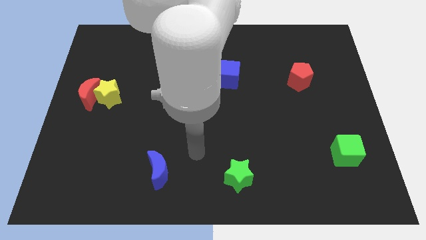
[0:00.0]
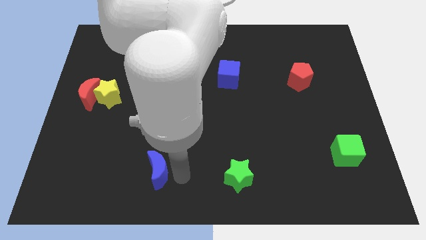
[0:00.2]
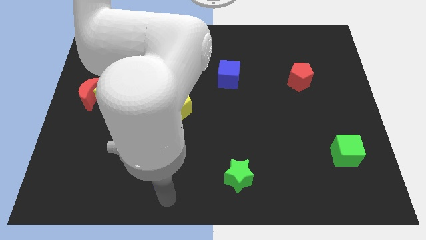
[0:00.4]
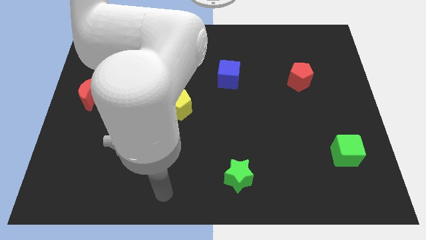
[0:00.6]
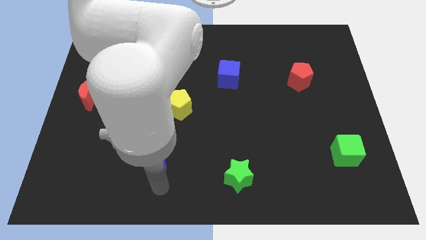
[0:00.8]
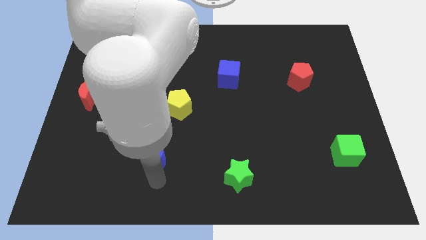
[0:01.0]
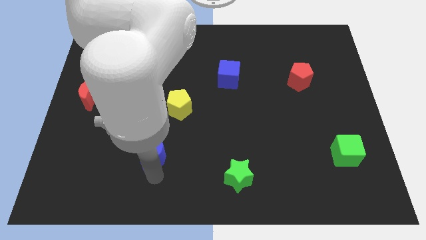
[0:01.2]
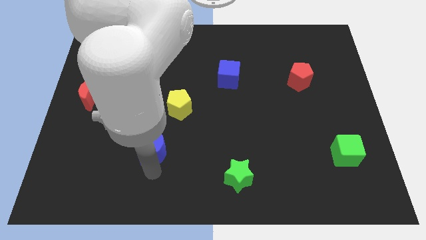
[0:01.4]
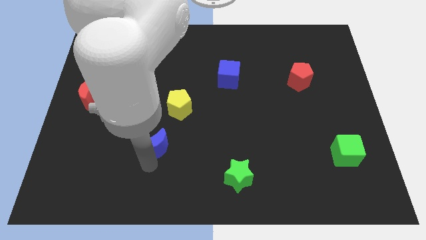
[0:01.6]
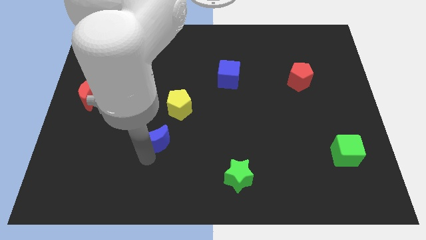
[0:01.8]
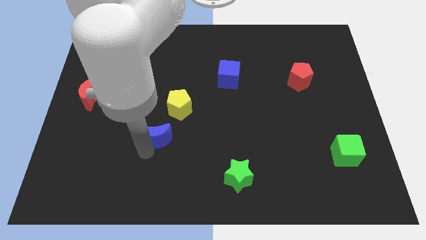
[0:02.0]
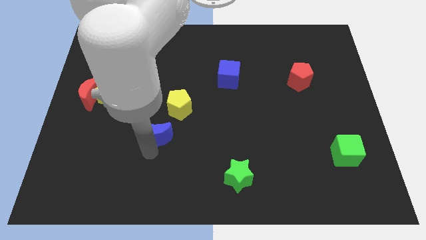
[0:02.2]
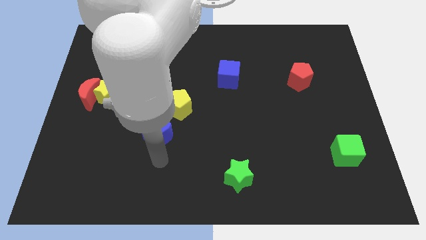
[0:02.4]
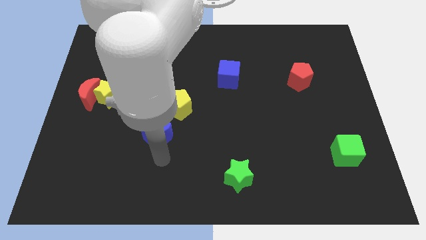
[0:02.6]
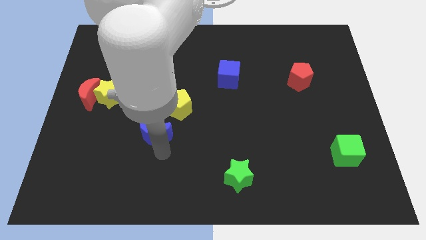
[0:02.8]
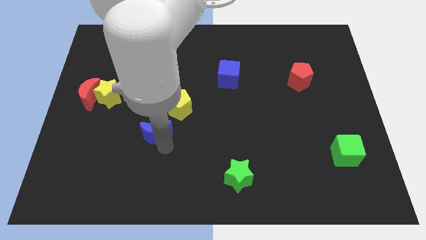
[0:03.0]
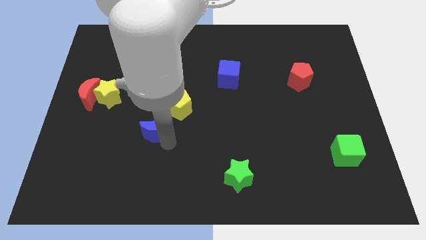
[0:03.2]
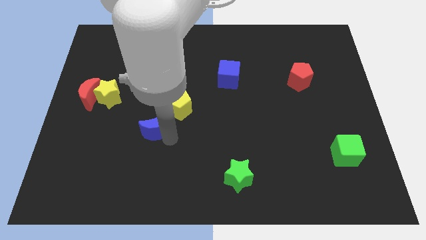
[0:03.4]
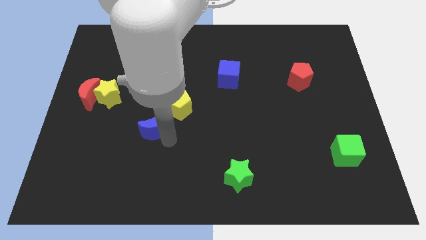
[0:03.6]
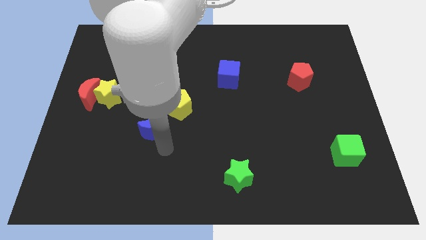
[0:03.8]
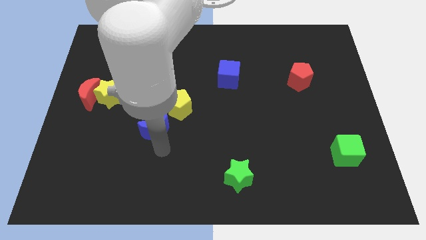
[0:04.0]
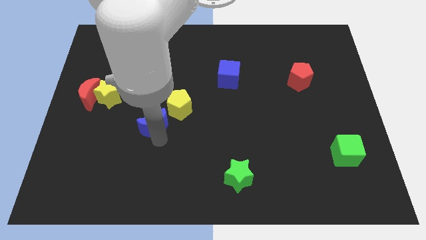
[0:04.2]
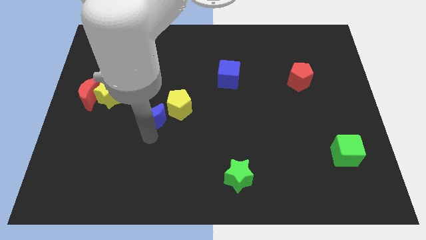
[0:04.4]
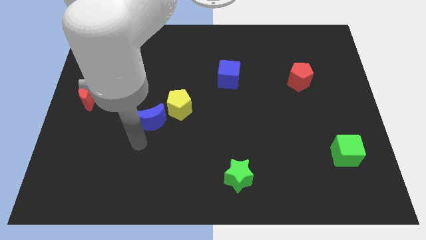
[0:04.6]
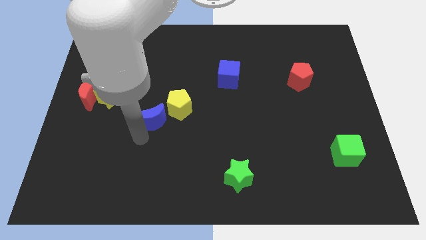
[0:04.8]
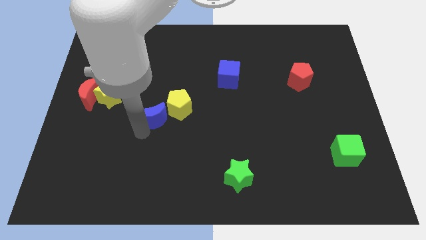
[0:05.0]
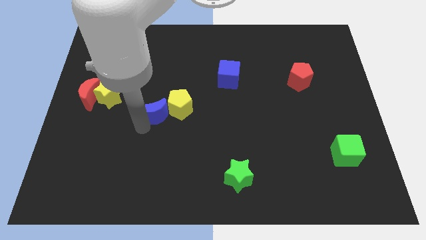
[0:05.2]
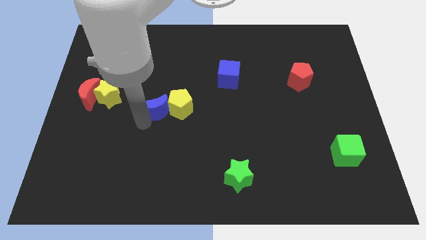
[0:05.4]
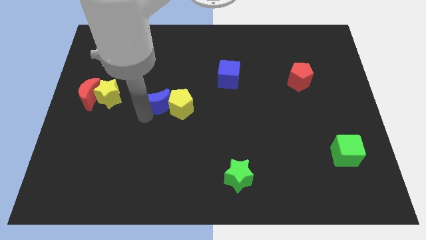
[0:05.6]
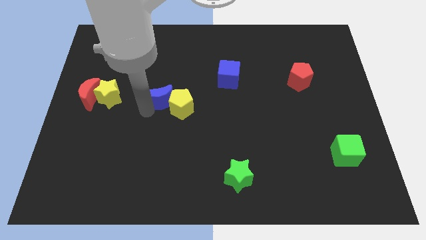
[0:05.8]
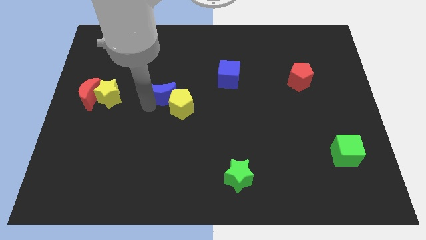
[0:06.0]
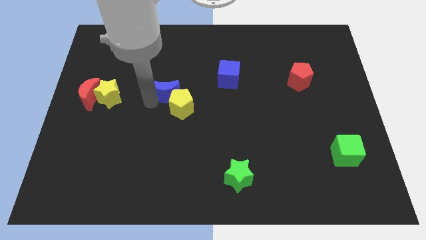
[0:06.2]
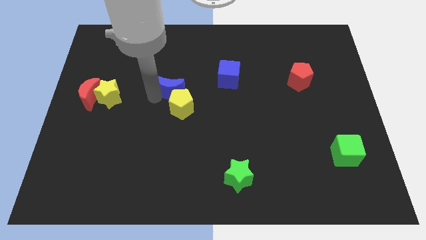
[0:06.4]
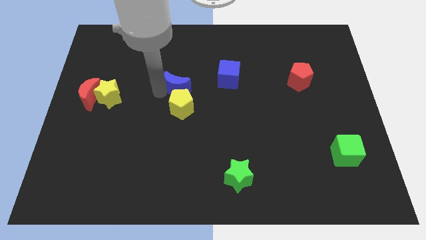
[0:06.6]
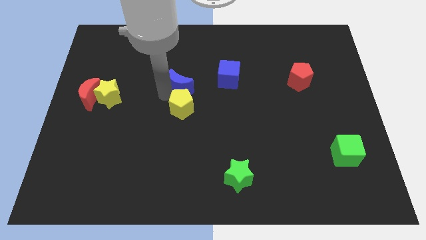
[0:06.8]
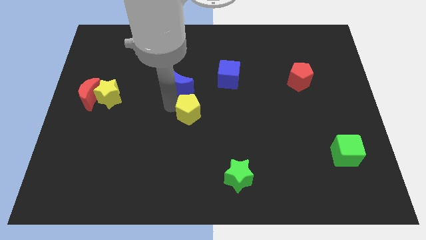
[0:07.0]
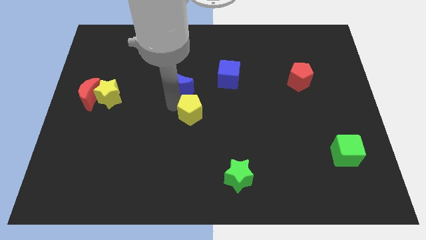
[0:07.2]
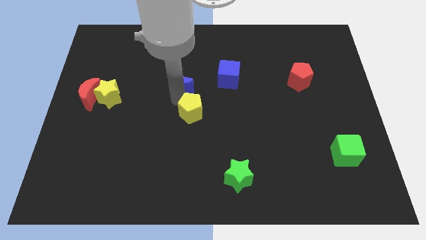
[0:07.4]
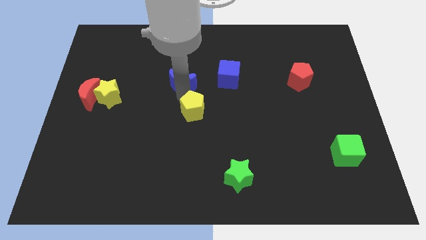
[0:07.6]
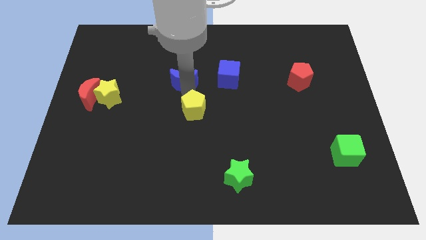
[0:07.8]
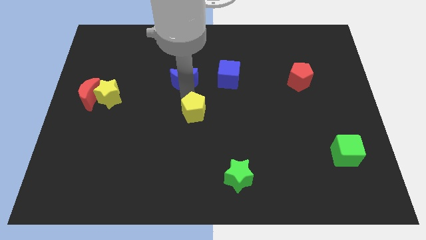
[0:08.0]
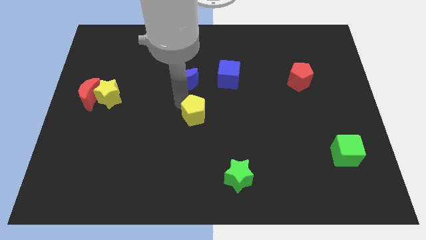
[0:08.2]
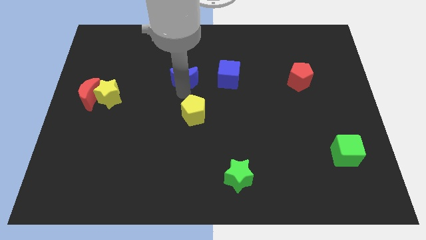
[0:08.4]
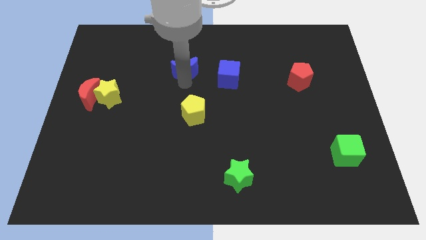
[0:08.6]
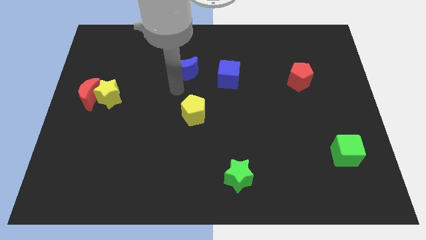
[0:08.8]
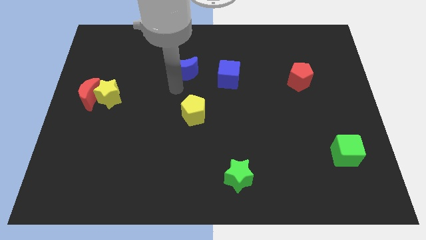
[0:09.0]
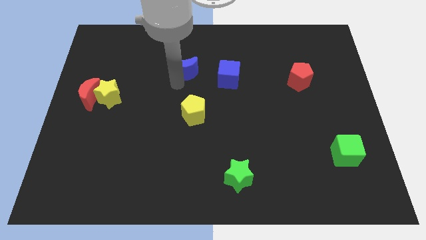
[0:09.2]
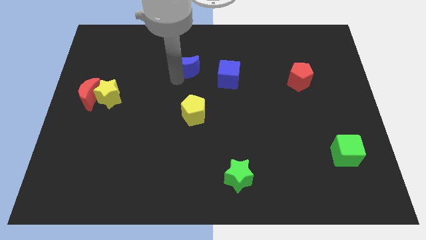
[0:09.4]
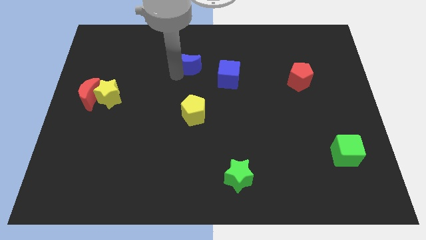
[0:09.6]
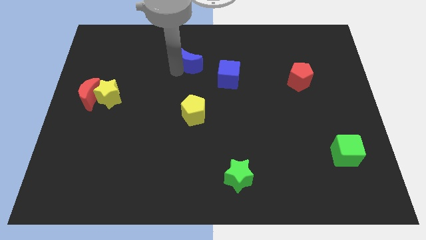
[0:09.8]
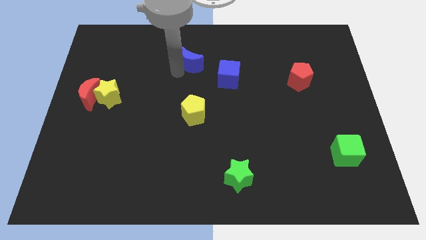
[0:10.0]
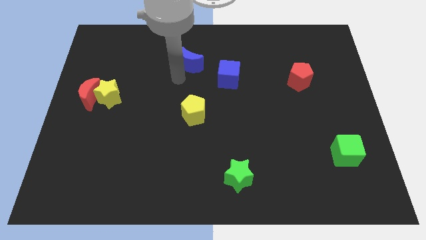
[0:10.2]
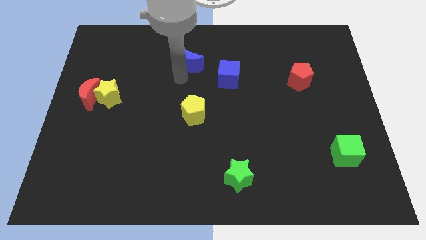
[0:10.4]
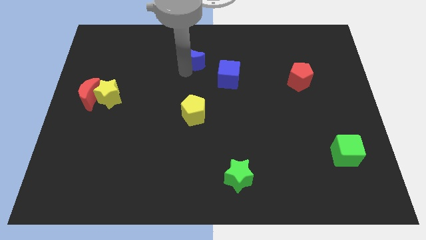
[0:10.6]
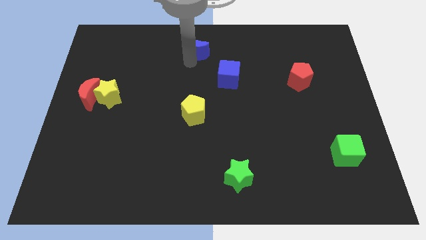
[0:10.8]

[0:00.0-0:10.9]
push the blue moon to the top
